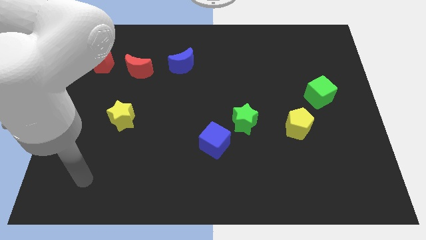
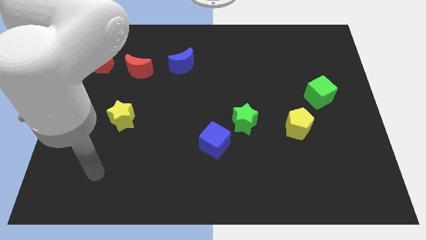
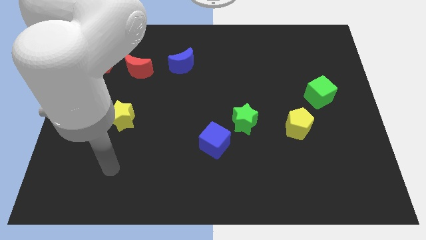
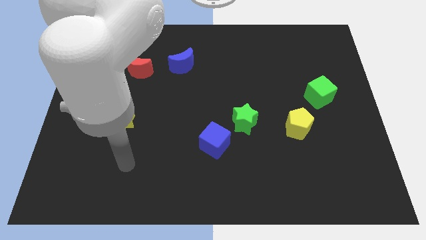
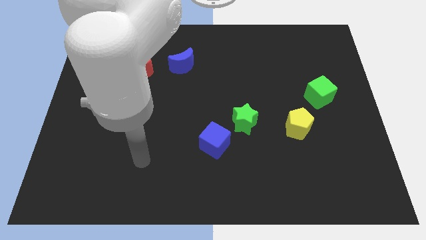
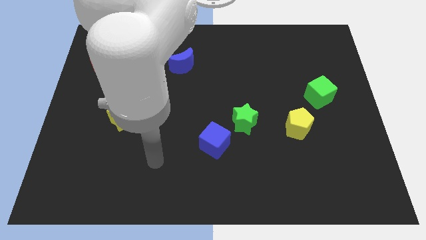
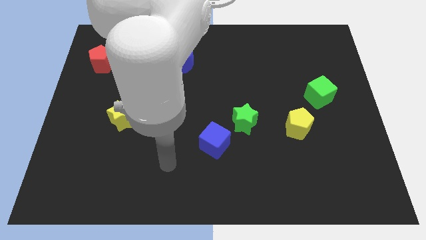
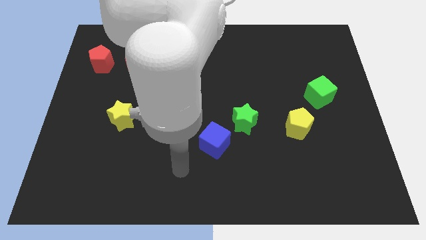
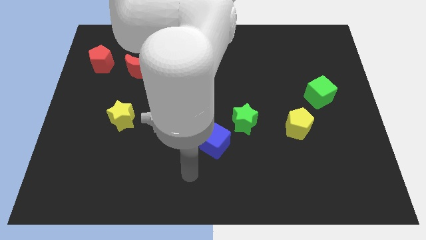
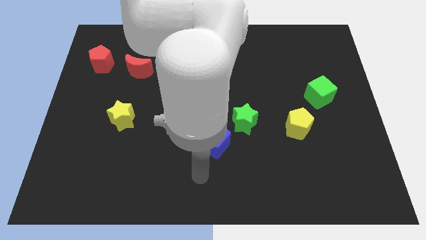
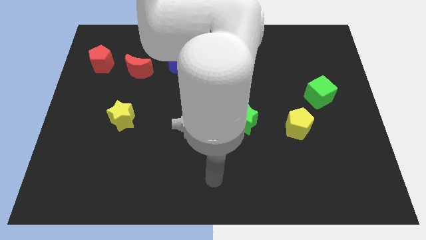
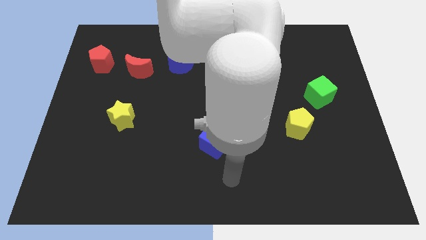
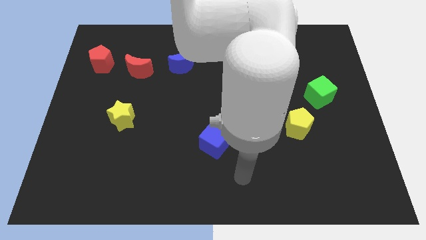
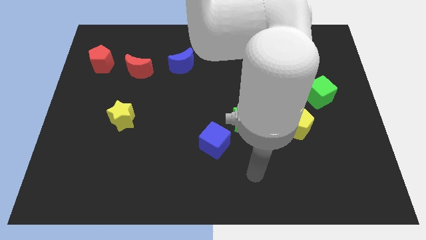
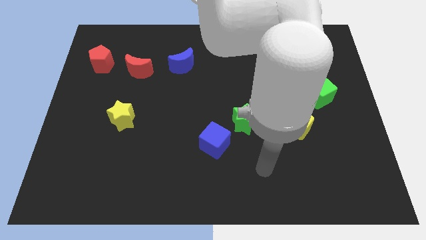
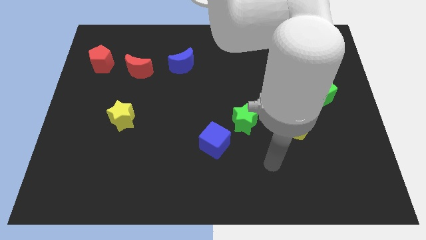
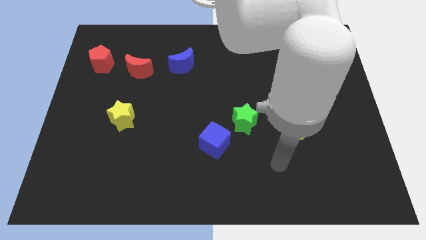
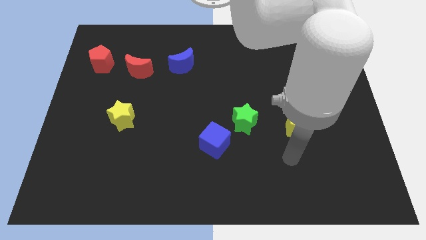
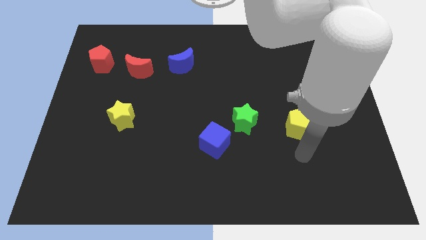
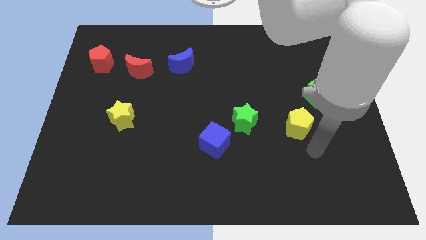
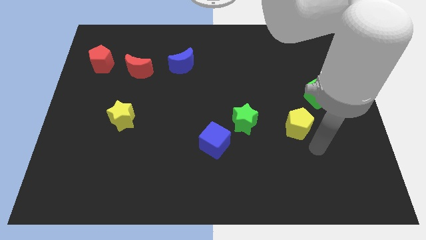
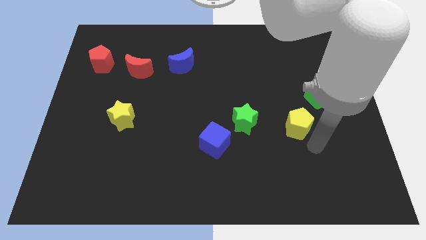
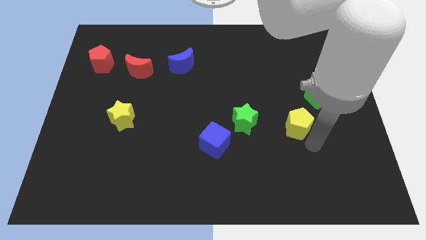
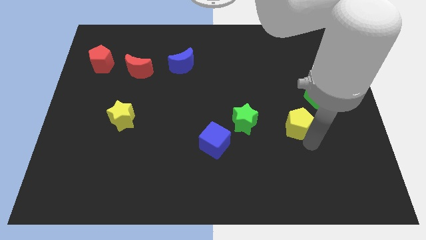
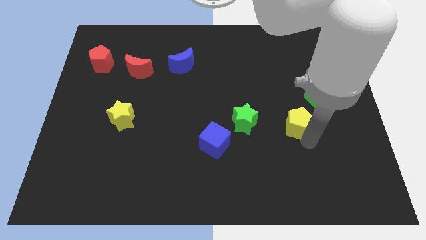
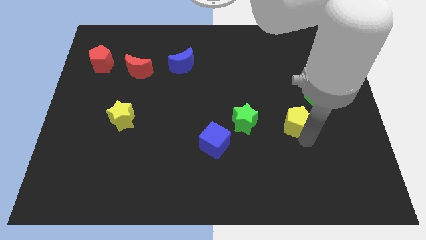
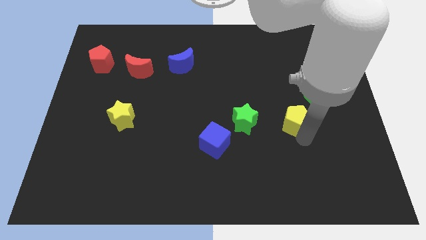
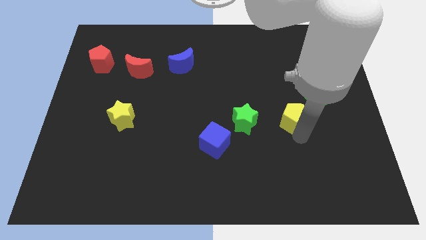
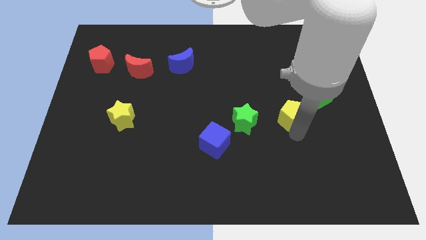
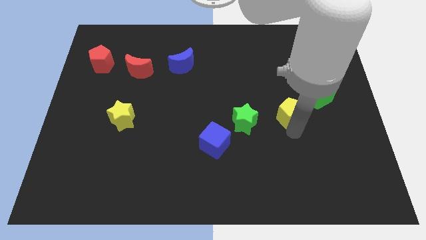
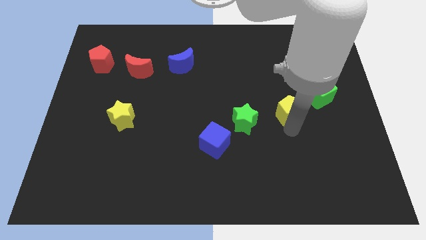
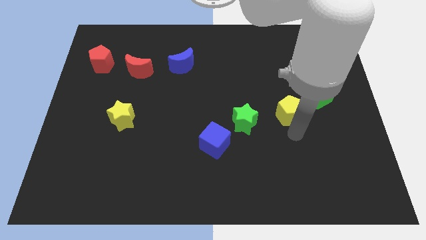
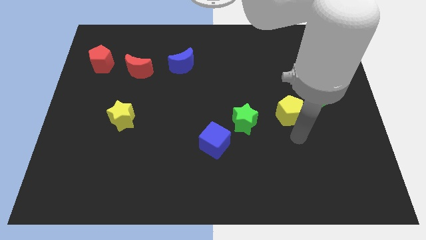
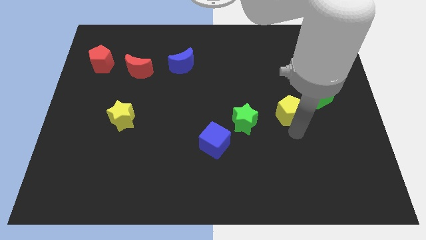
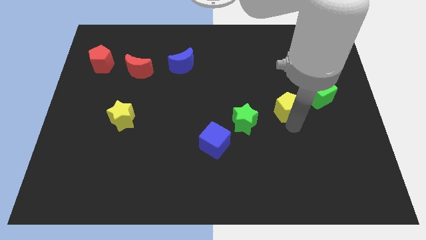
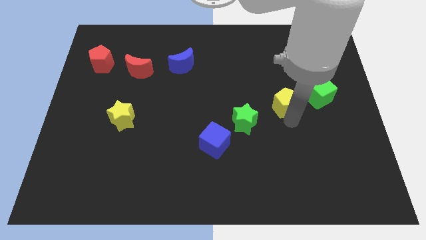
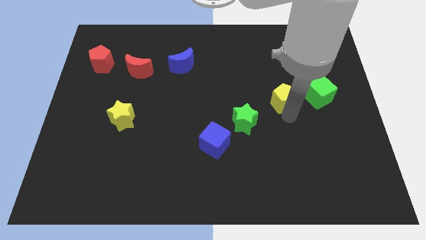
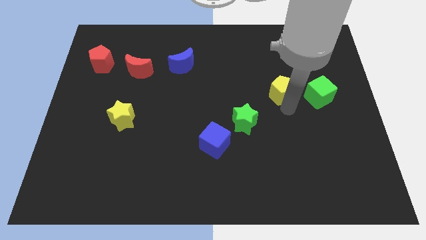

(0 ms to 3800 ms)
slide the yellow pentagon slightly diagonally upwards and to the left

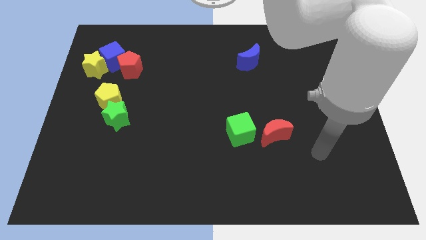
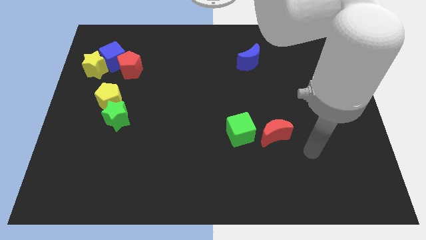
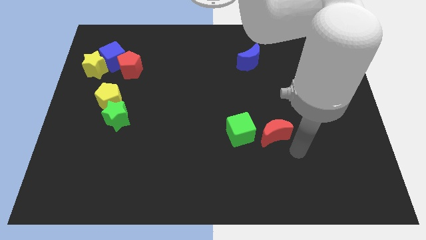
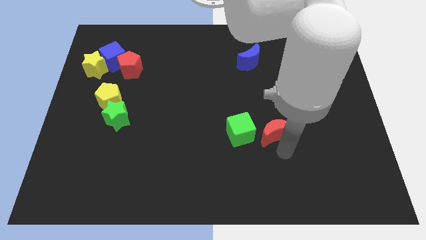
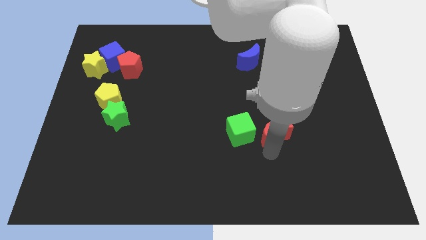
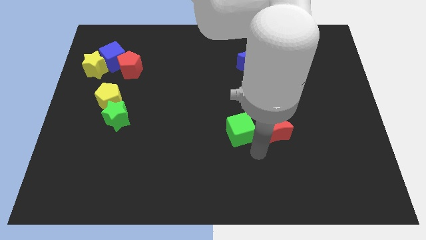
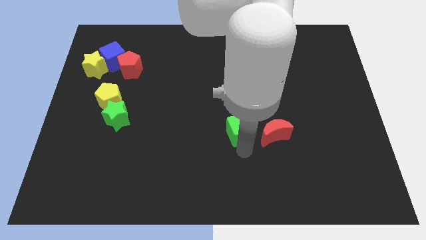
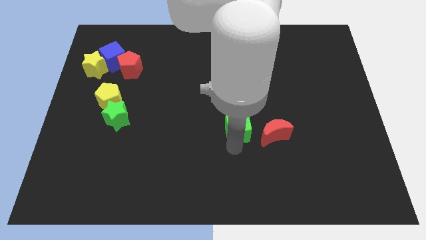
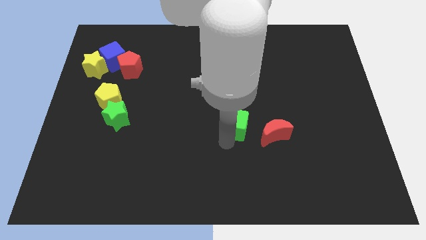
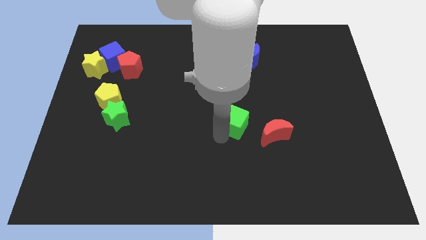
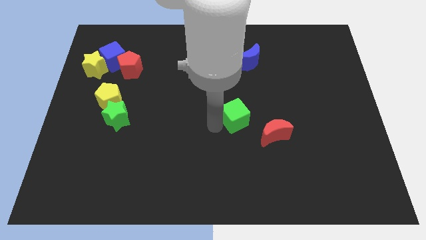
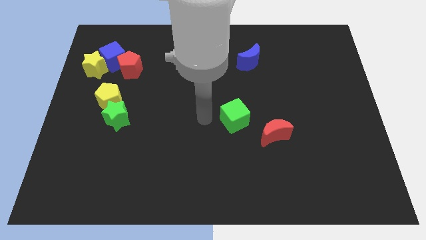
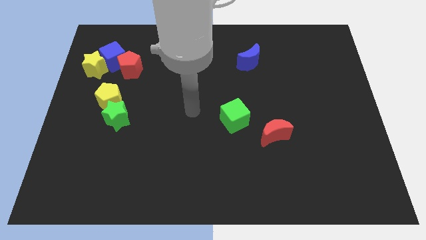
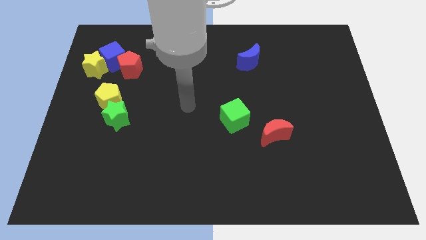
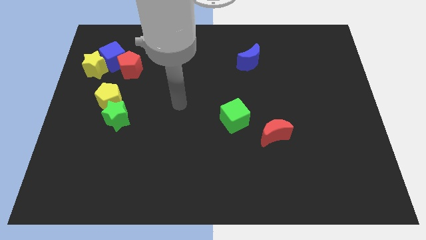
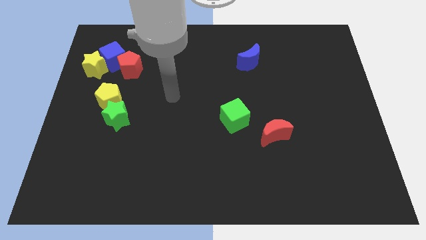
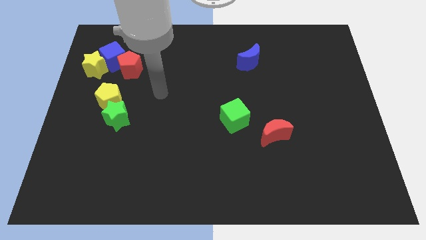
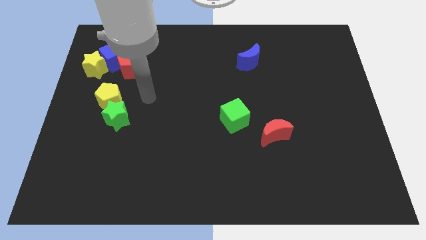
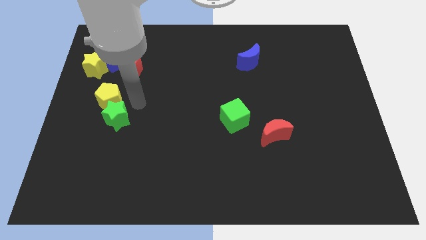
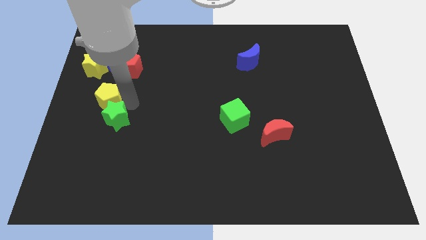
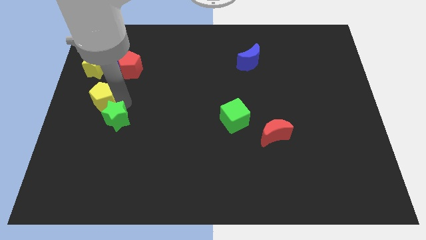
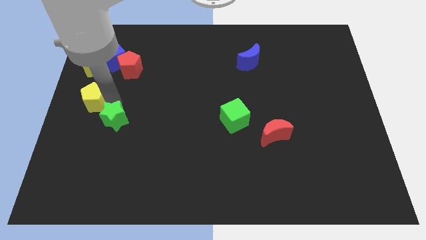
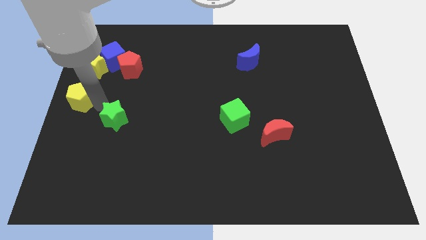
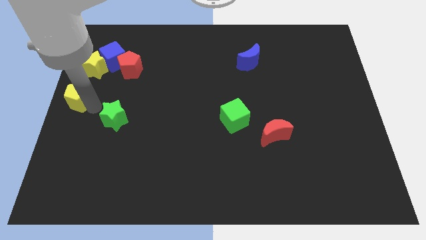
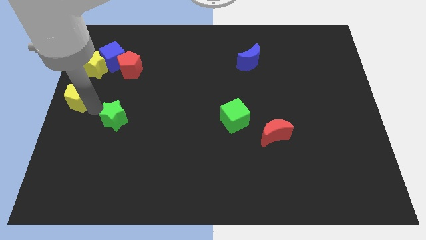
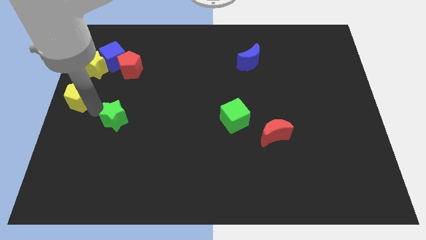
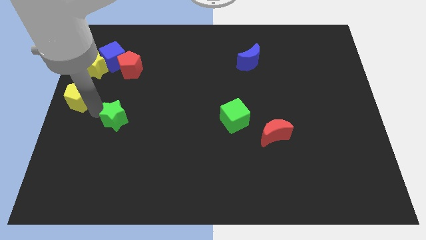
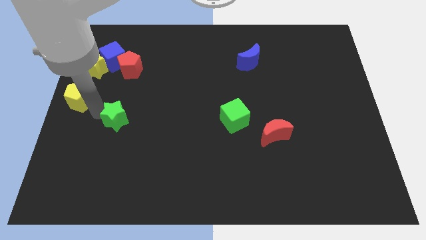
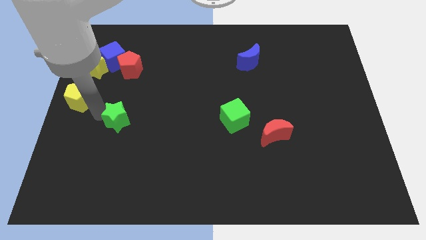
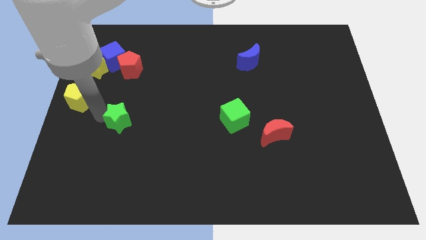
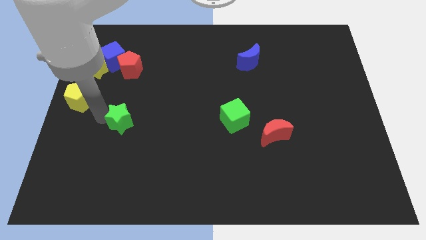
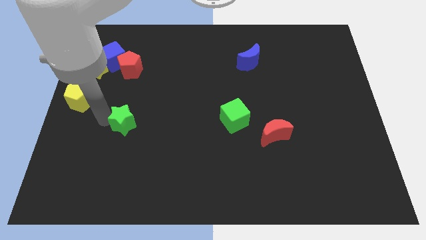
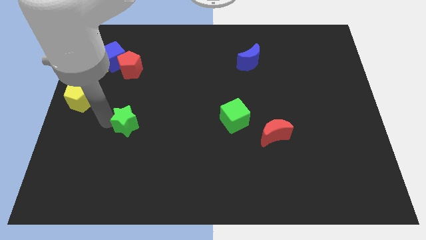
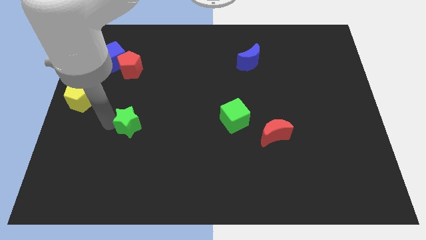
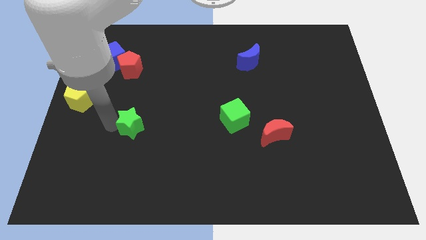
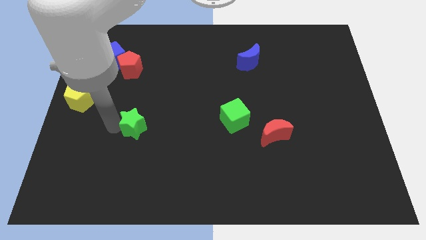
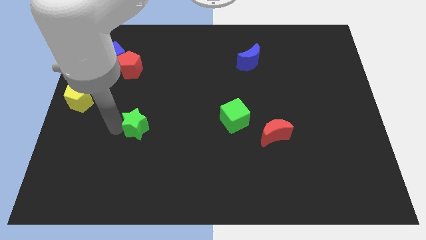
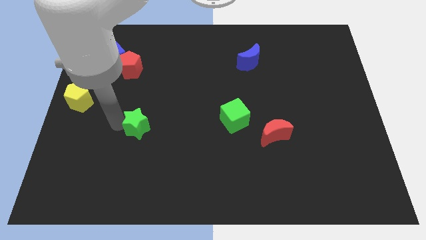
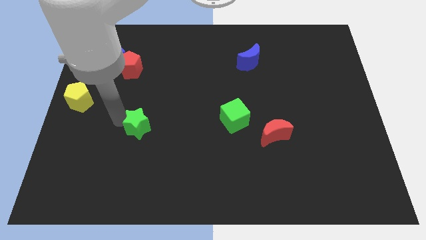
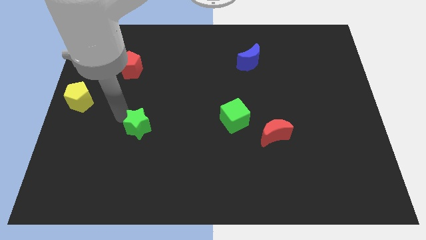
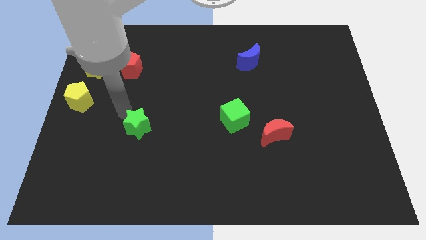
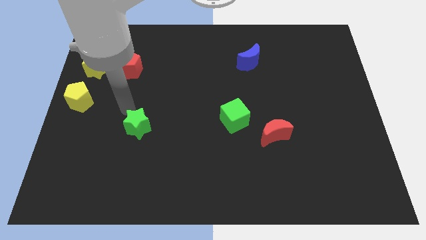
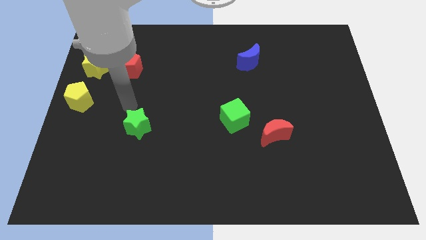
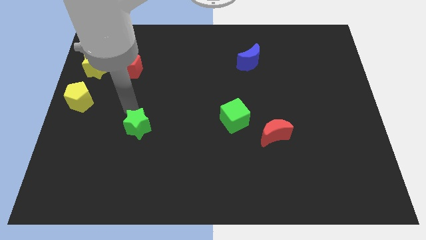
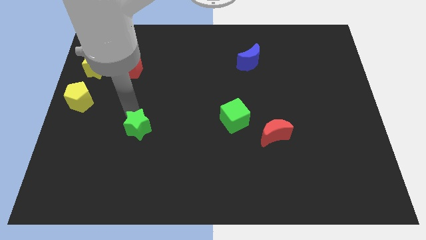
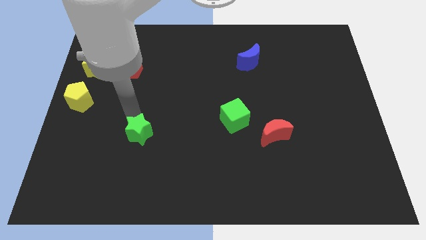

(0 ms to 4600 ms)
push the green star down and right slightly
